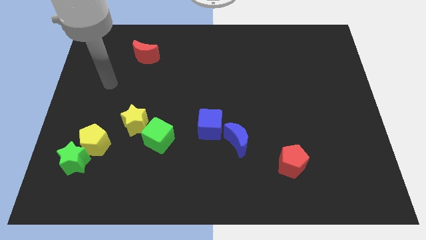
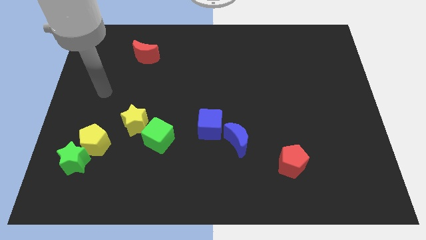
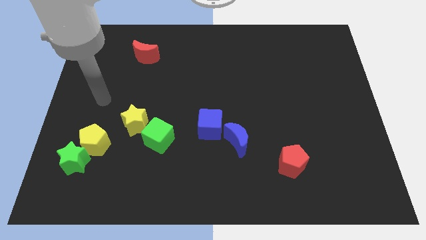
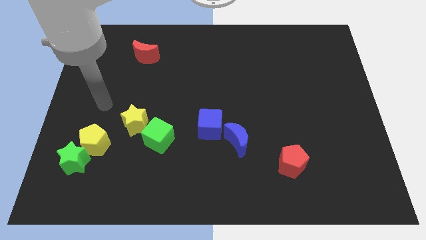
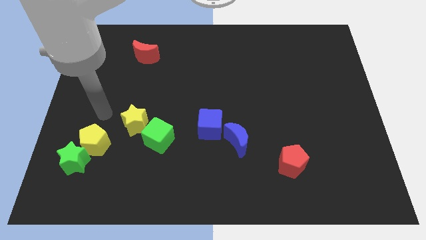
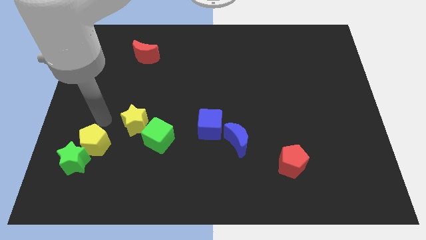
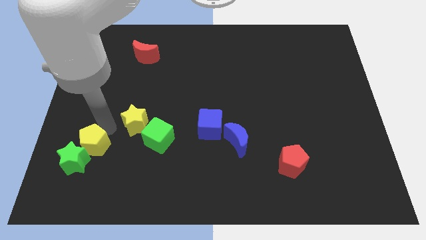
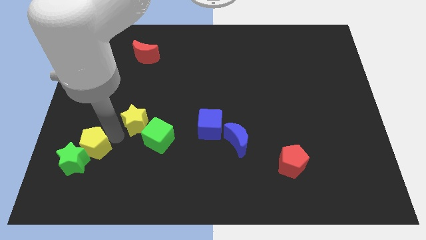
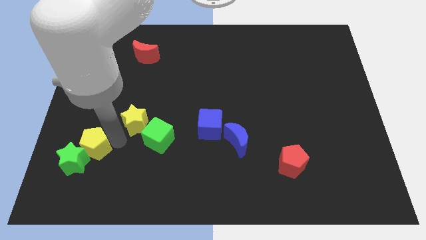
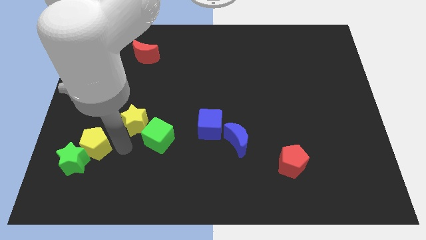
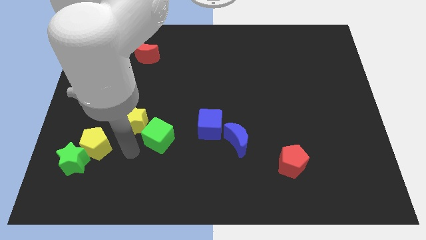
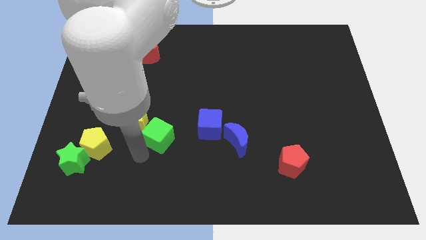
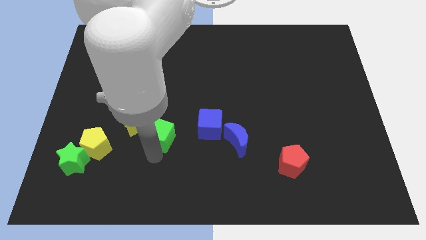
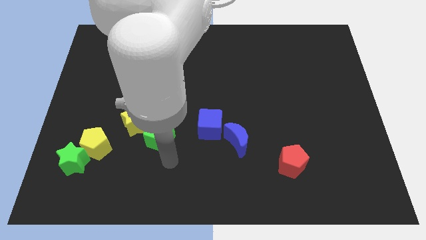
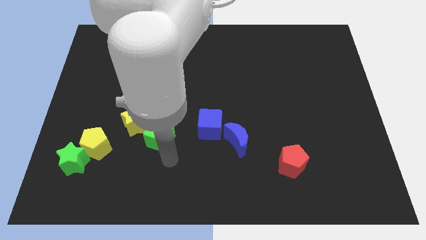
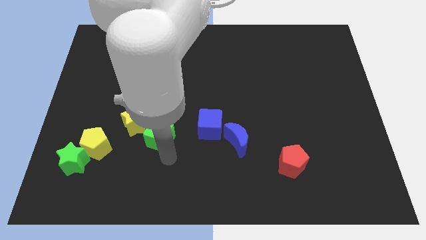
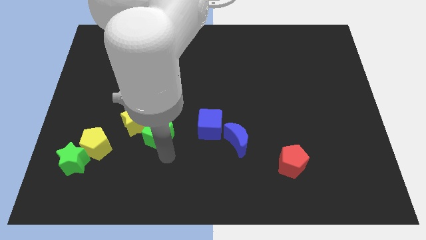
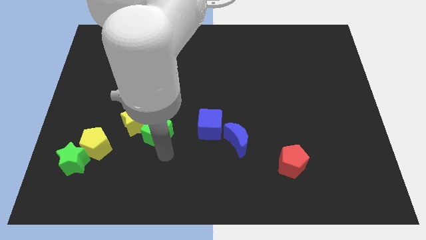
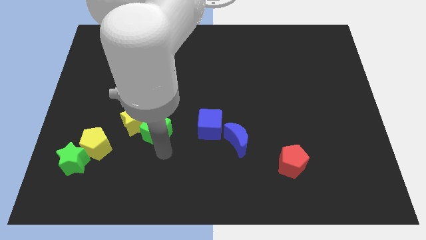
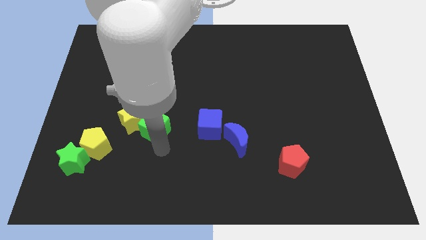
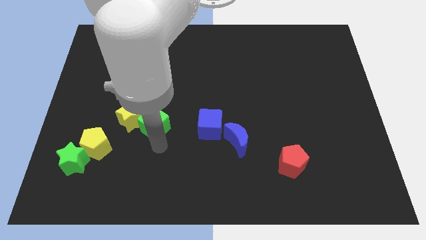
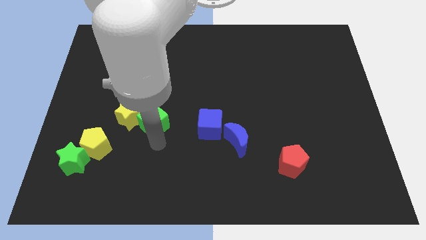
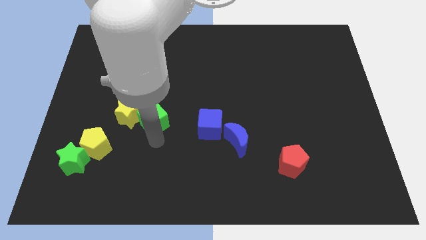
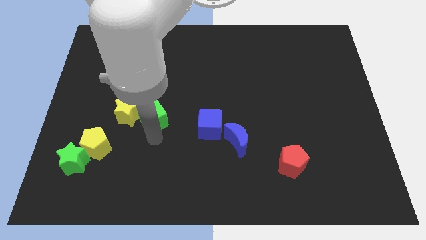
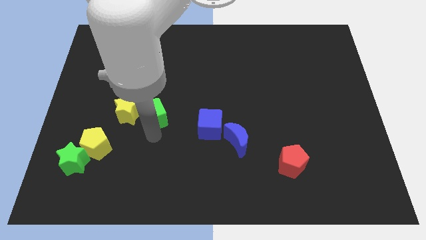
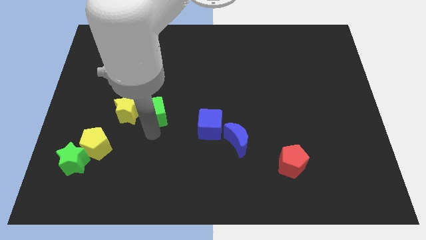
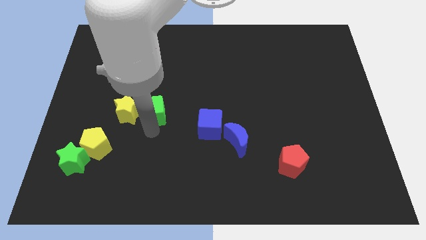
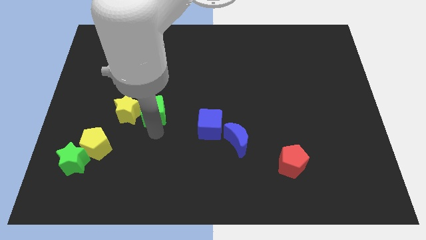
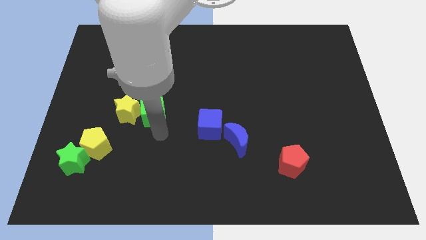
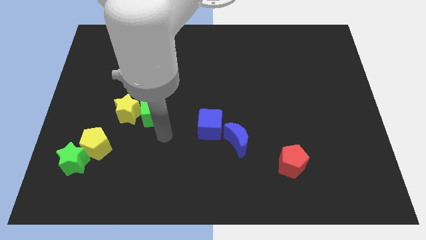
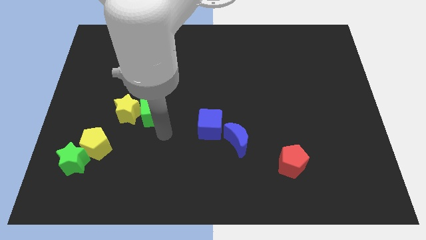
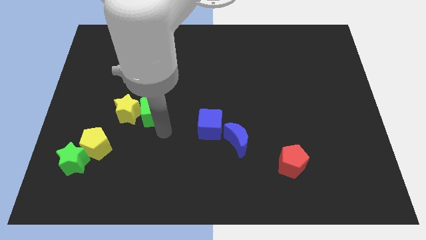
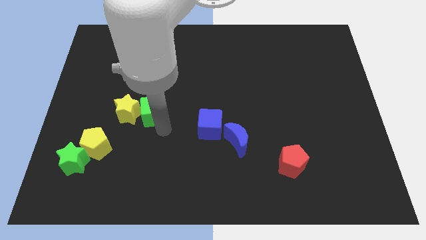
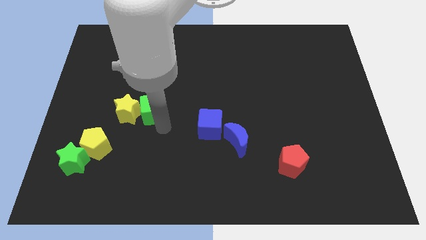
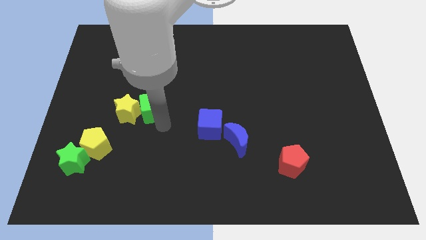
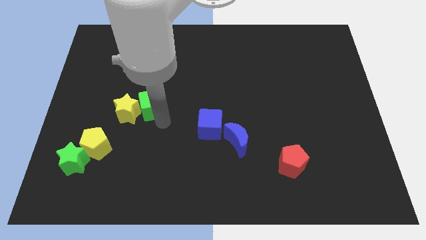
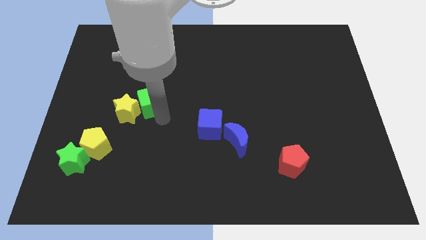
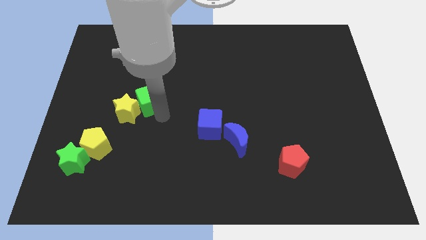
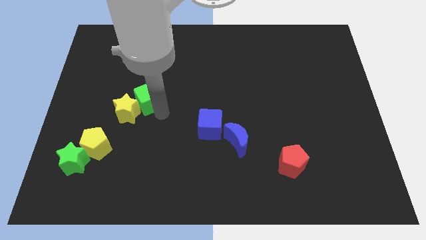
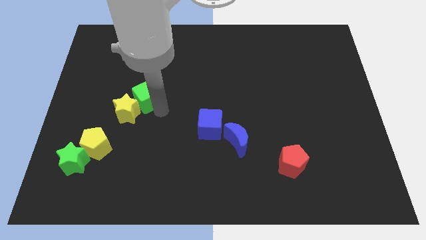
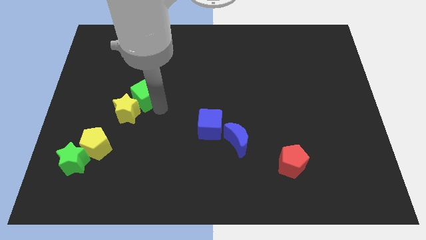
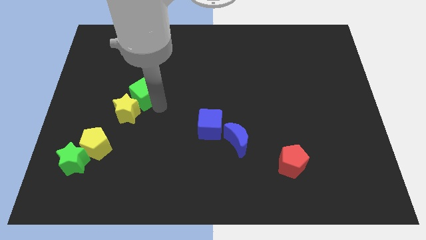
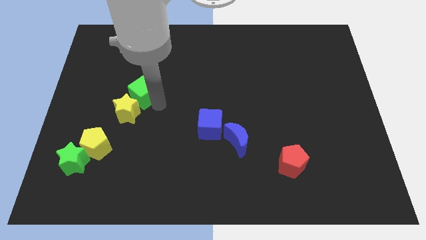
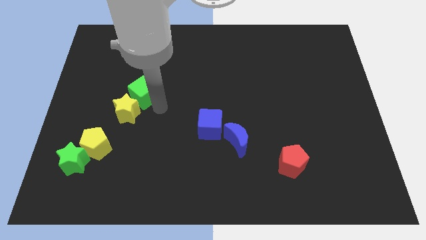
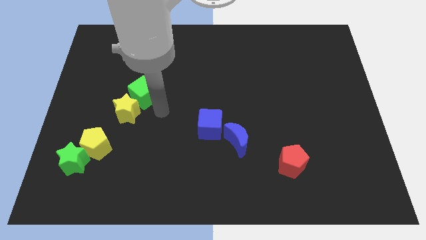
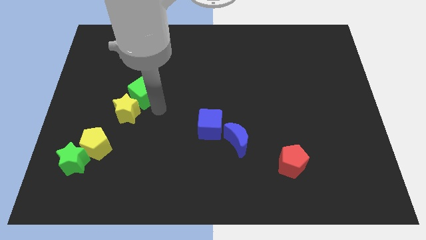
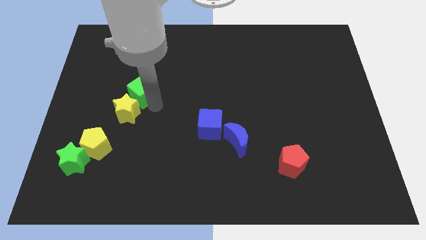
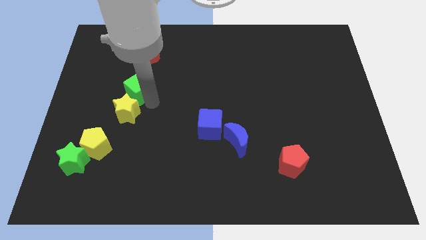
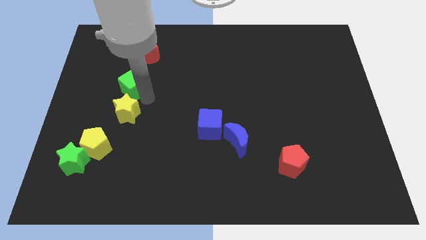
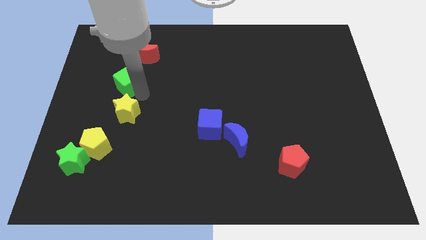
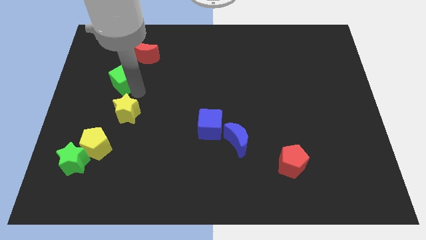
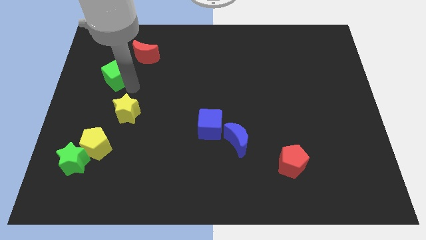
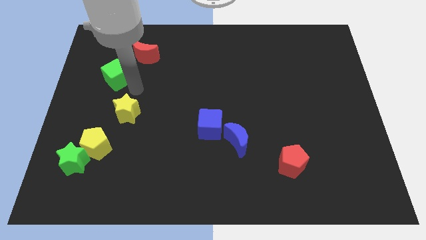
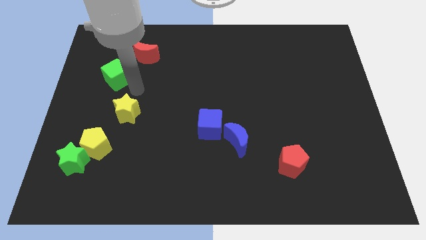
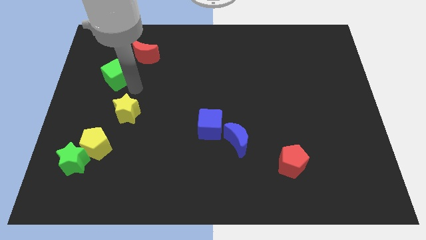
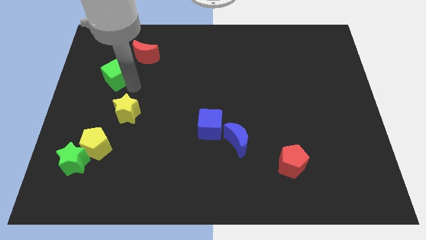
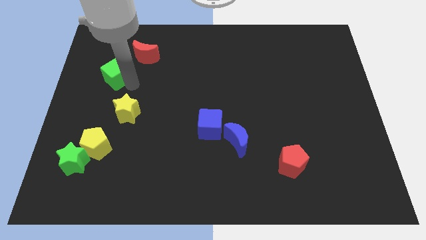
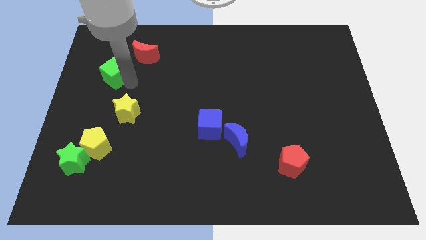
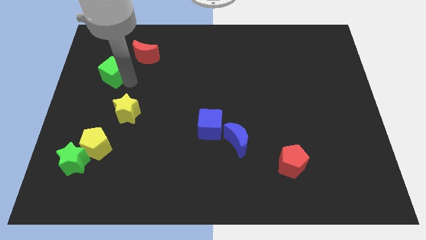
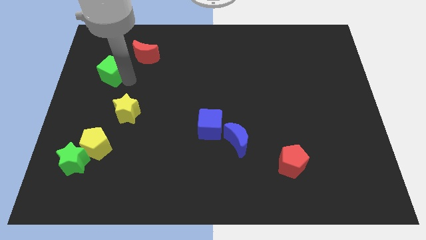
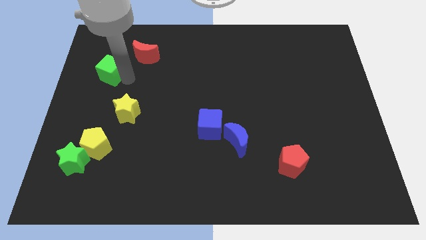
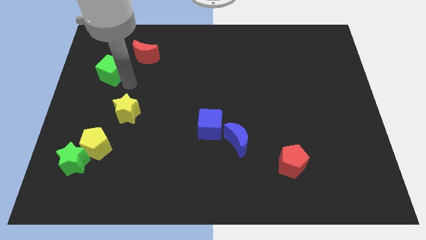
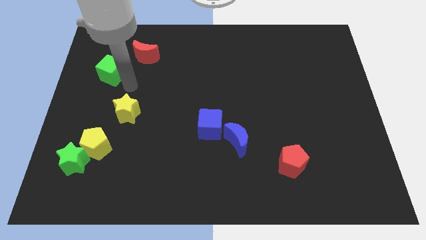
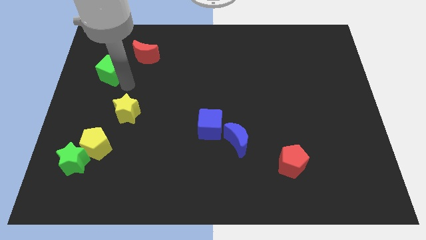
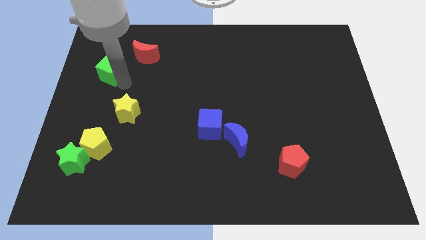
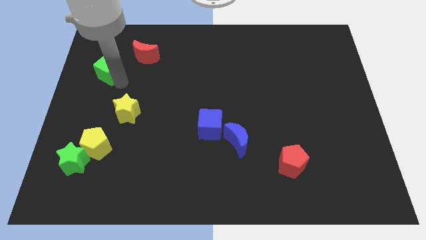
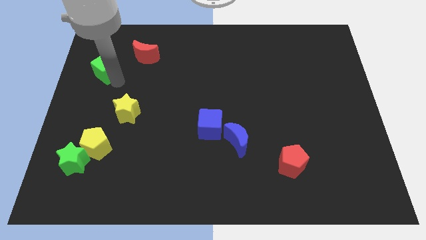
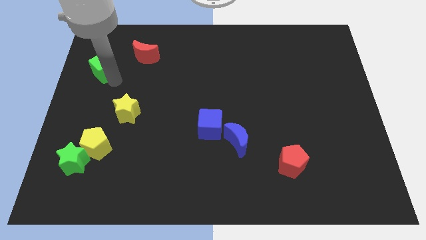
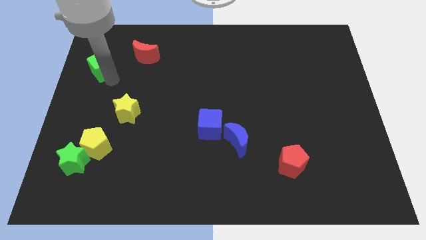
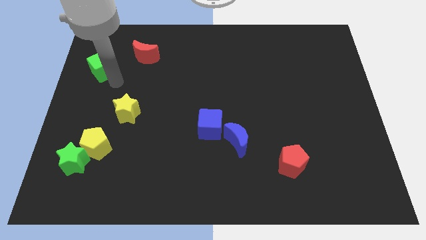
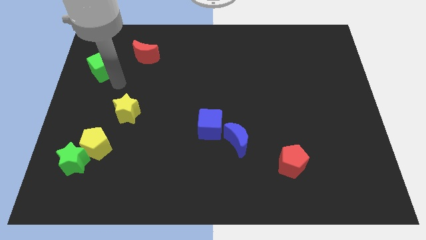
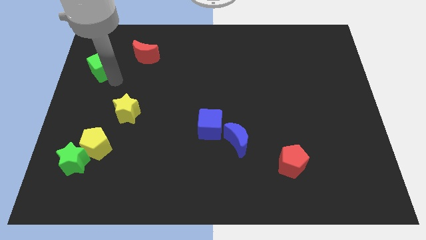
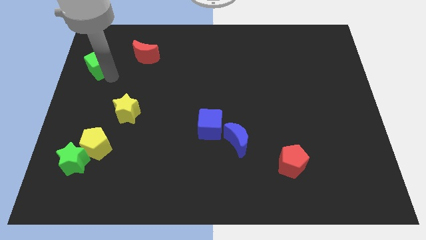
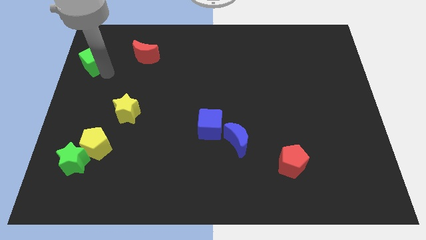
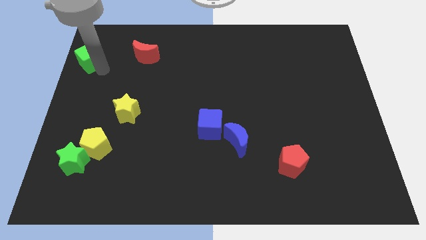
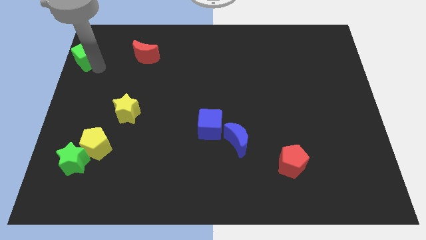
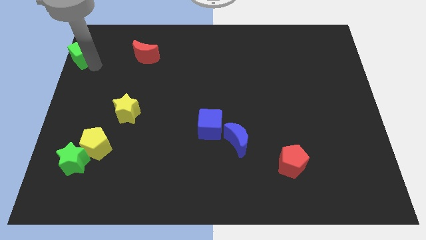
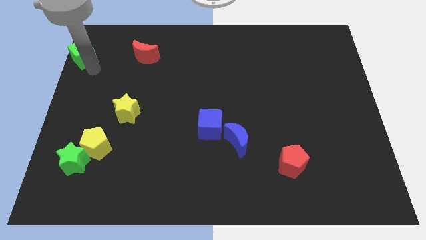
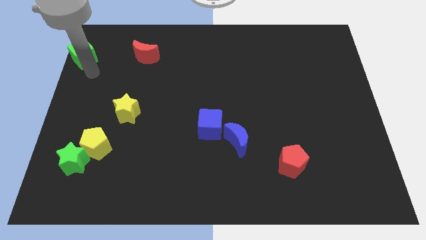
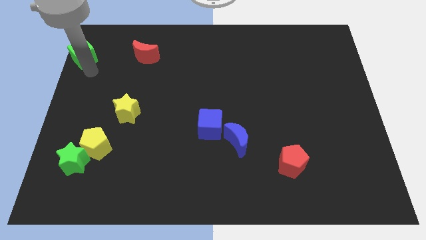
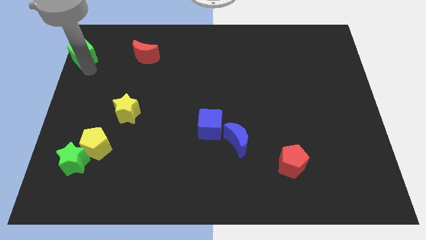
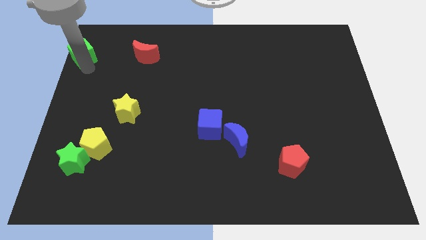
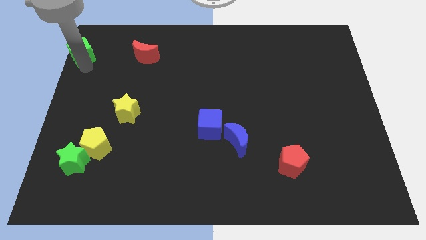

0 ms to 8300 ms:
slide the green cube to the top left of the board

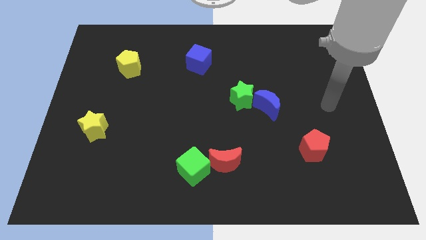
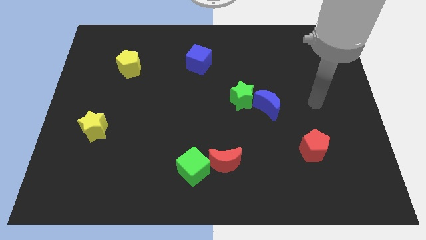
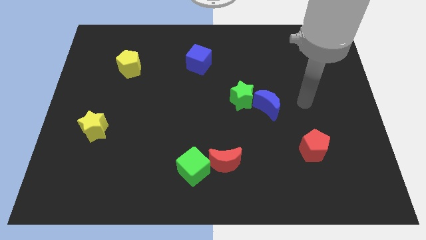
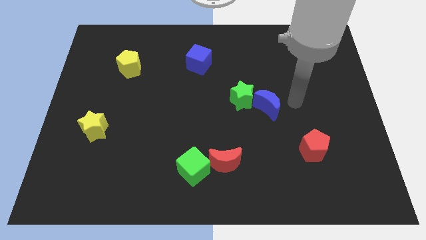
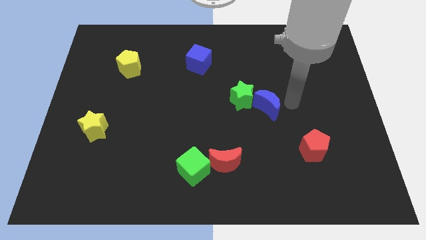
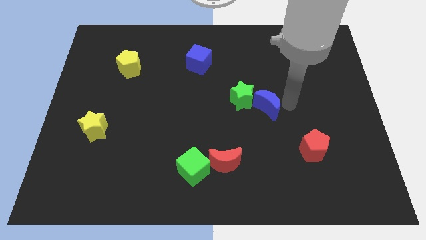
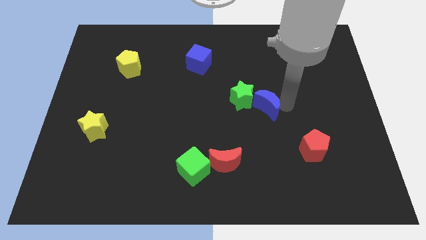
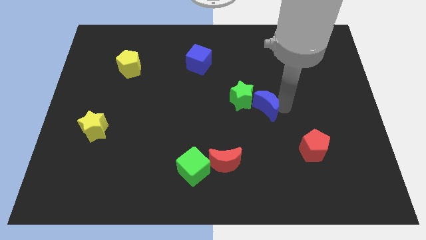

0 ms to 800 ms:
slide the blue moon to the middle
